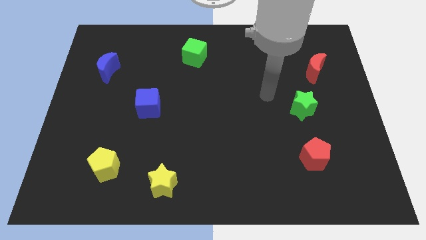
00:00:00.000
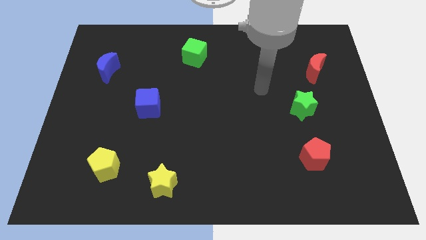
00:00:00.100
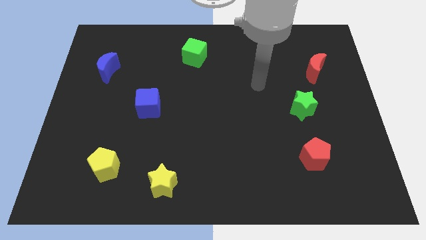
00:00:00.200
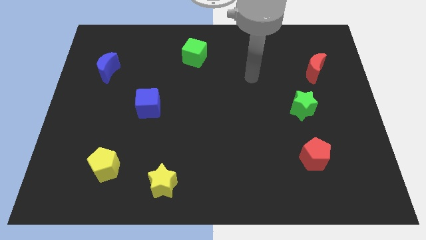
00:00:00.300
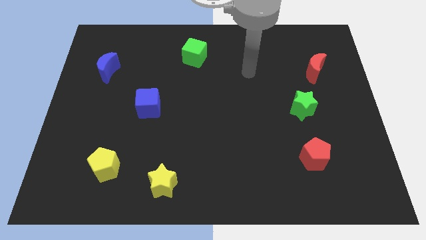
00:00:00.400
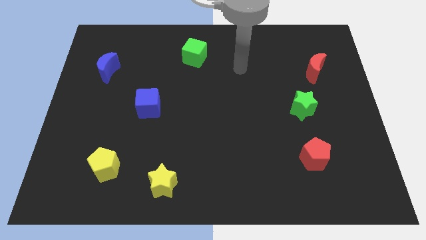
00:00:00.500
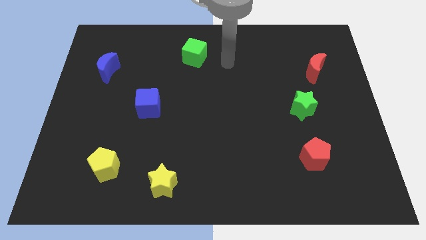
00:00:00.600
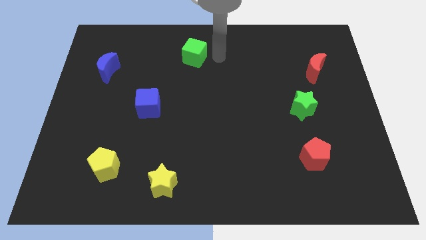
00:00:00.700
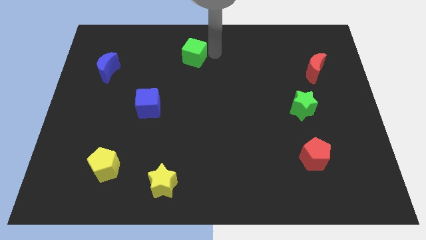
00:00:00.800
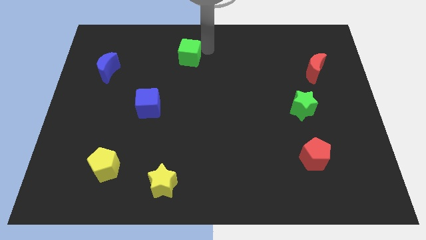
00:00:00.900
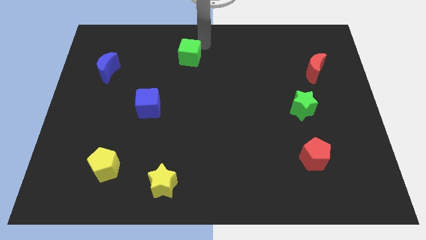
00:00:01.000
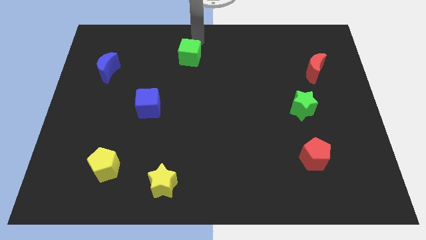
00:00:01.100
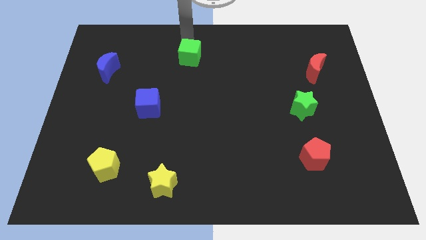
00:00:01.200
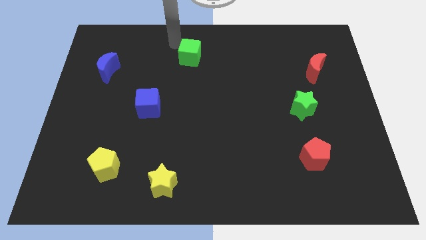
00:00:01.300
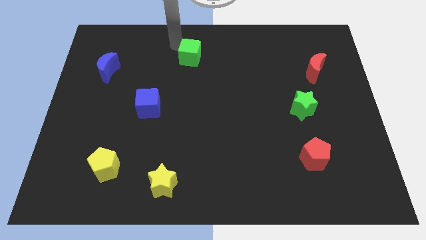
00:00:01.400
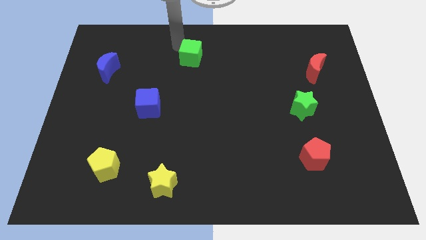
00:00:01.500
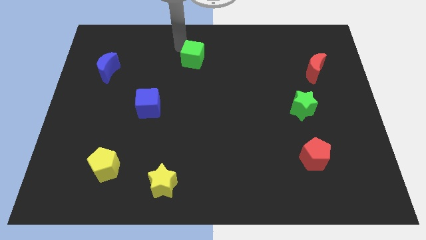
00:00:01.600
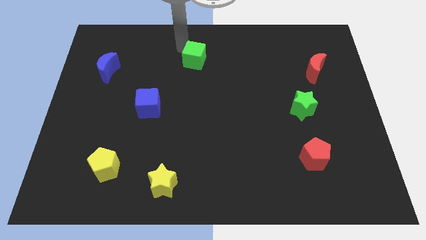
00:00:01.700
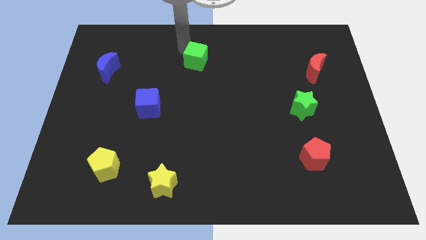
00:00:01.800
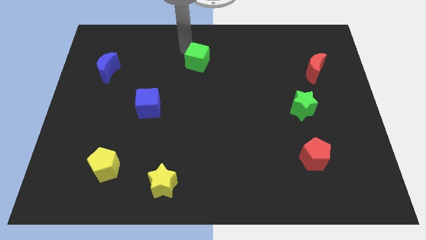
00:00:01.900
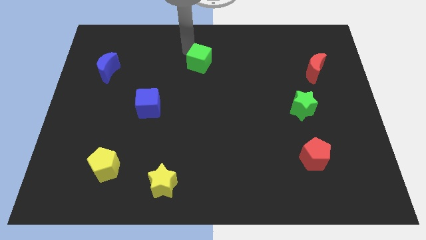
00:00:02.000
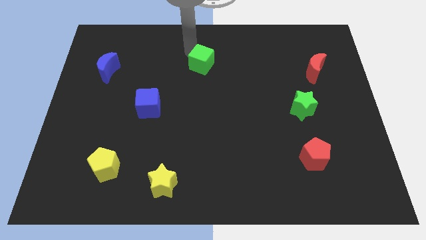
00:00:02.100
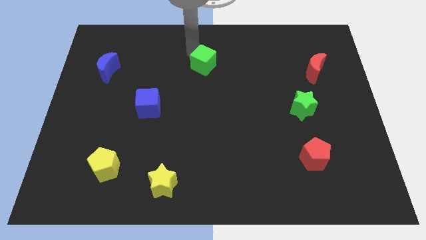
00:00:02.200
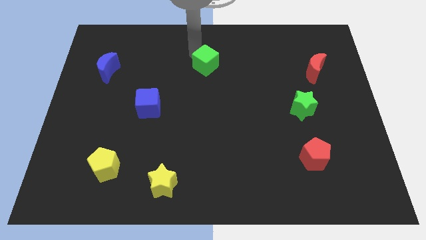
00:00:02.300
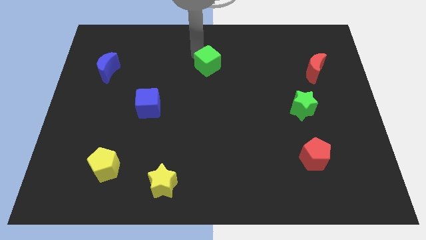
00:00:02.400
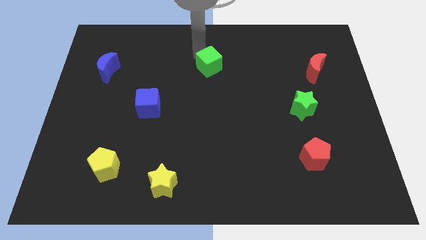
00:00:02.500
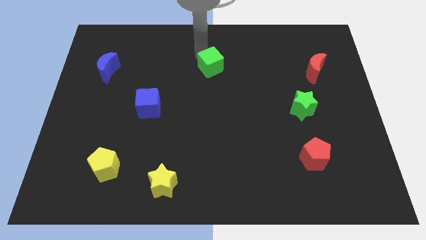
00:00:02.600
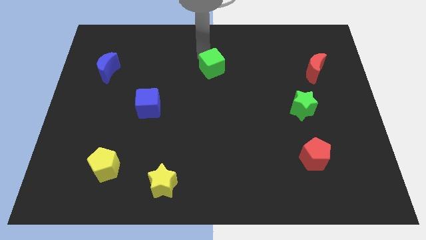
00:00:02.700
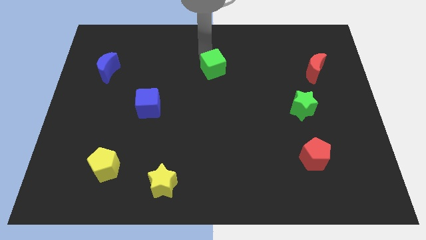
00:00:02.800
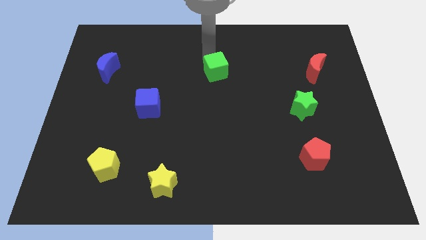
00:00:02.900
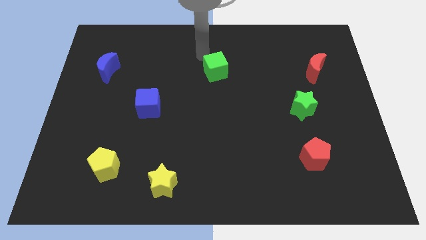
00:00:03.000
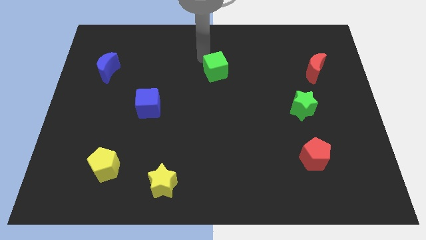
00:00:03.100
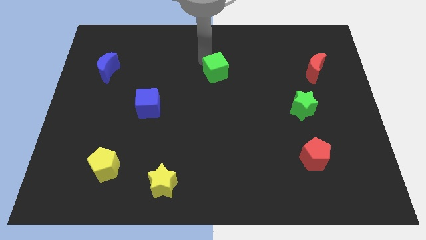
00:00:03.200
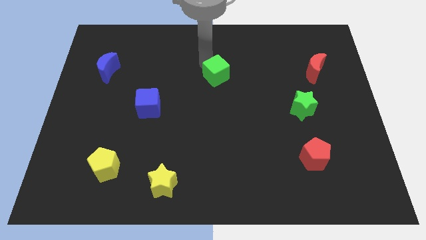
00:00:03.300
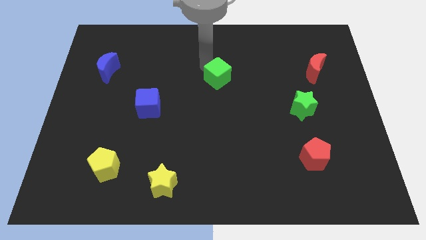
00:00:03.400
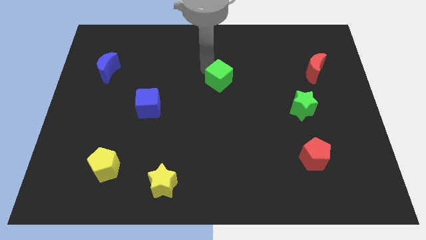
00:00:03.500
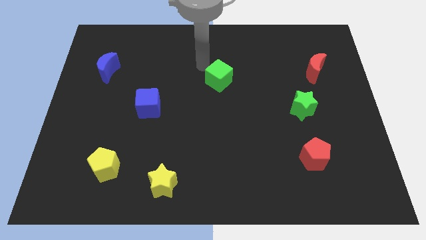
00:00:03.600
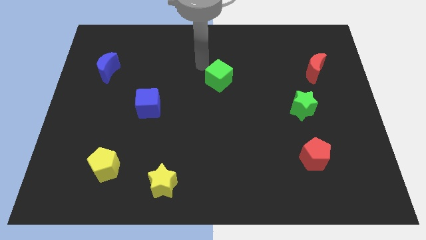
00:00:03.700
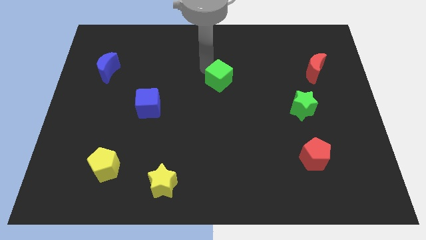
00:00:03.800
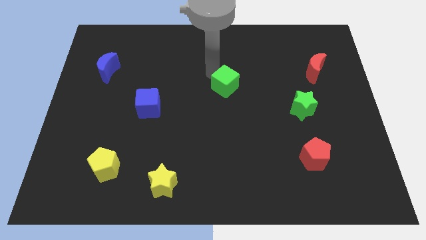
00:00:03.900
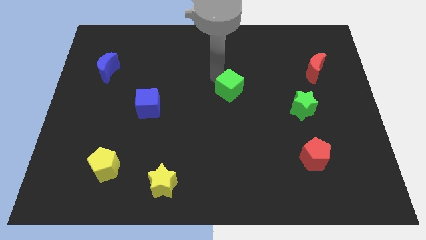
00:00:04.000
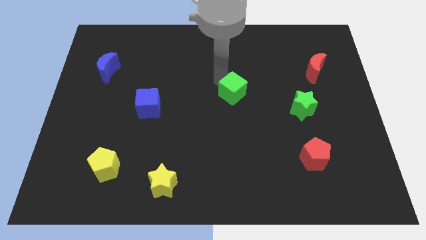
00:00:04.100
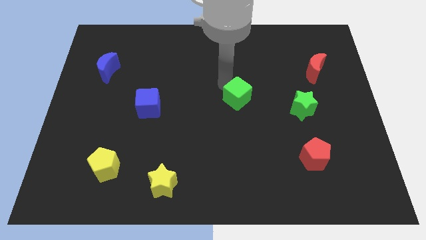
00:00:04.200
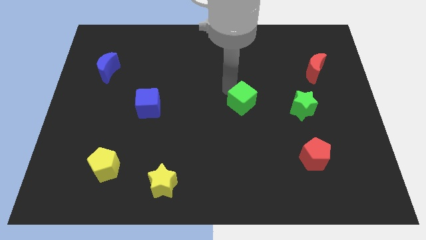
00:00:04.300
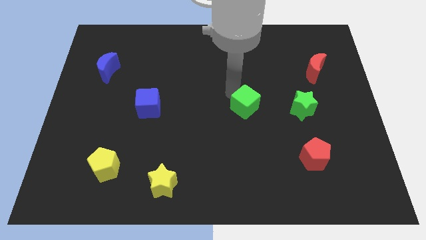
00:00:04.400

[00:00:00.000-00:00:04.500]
push the green cube downwards and right diagonally

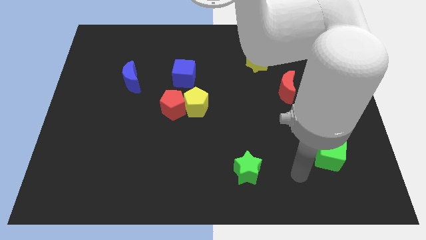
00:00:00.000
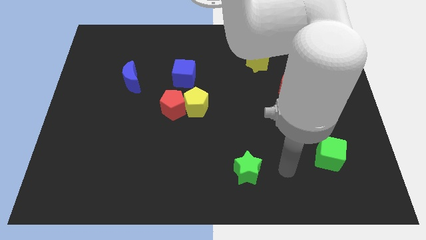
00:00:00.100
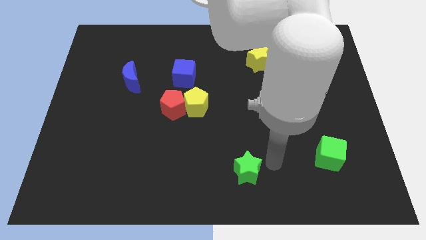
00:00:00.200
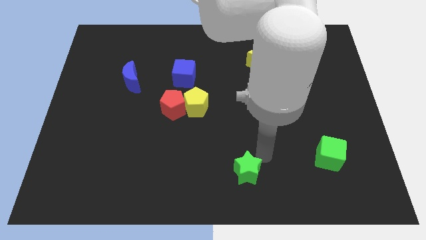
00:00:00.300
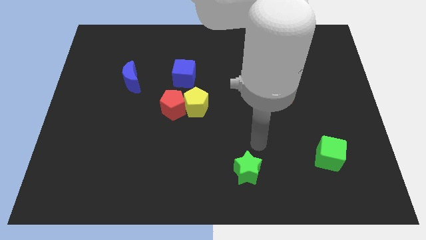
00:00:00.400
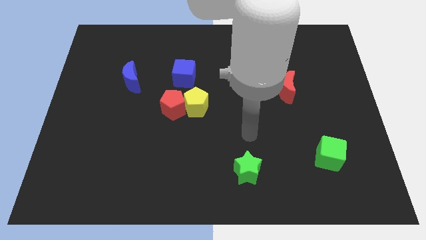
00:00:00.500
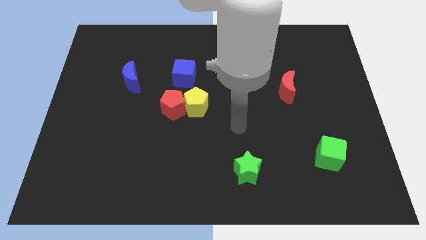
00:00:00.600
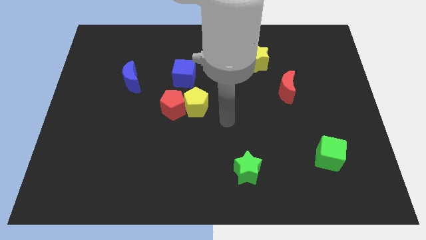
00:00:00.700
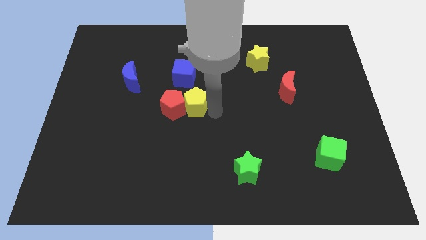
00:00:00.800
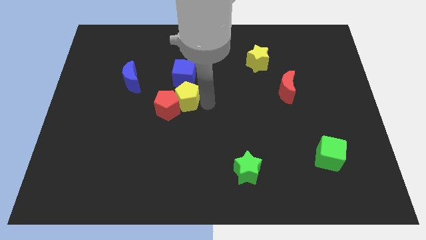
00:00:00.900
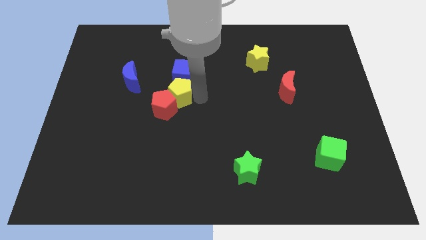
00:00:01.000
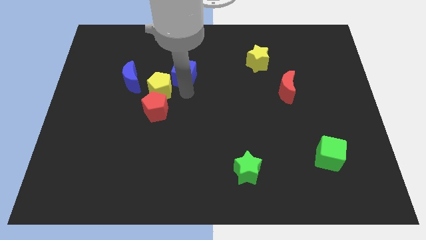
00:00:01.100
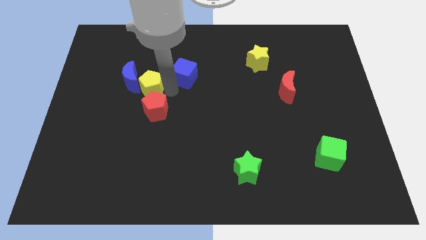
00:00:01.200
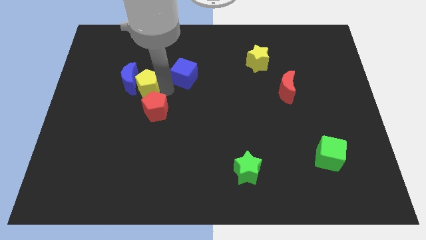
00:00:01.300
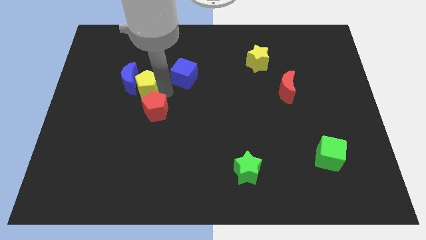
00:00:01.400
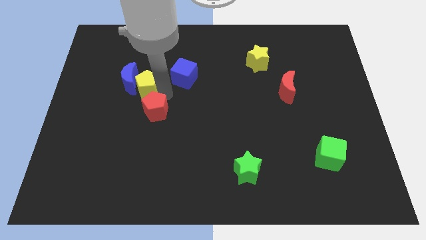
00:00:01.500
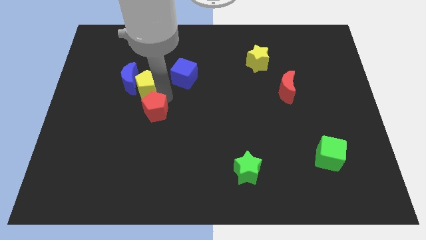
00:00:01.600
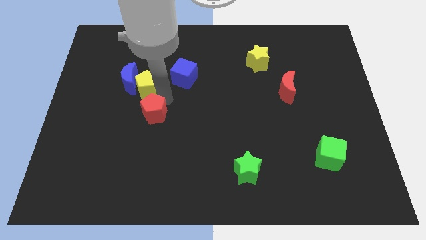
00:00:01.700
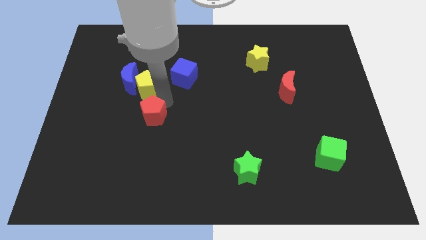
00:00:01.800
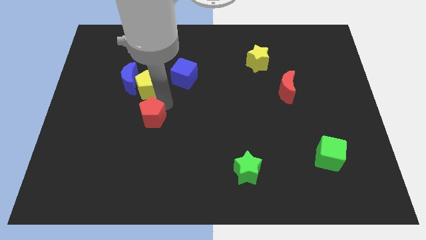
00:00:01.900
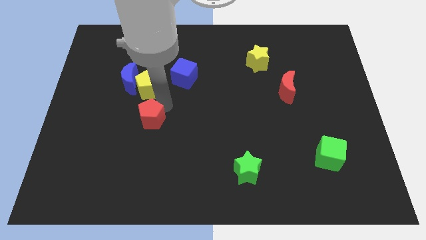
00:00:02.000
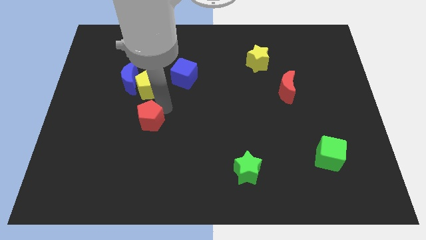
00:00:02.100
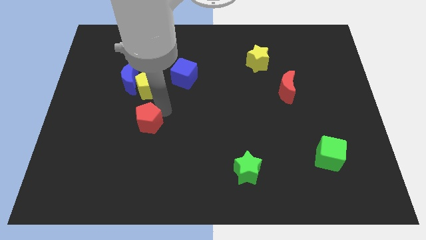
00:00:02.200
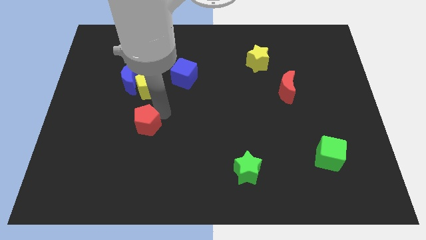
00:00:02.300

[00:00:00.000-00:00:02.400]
slightly move the red pentagon down and left diagonally

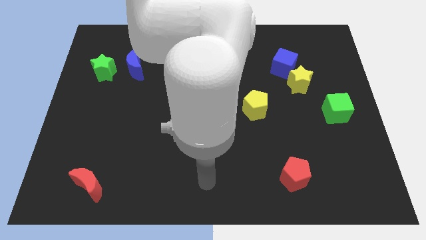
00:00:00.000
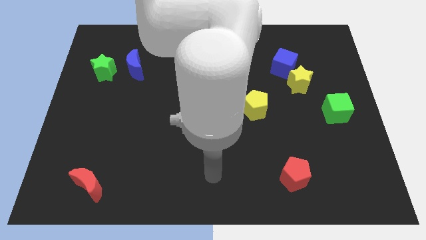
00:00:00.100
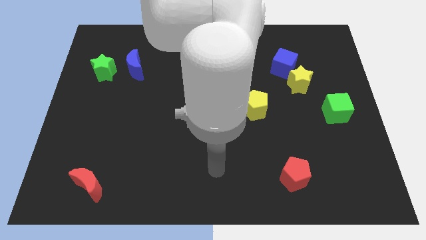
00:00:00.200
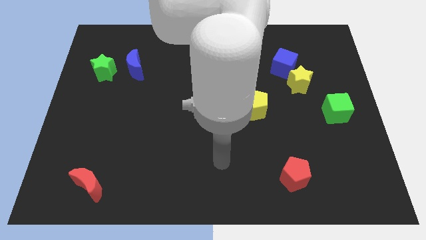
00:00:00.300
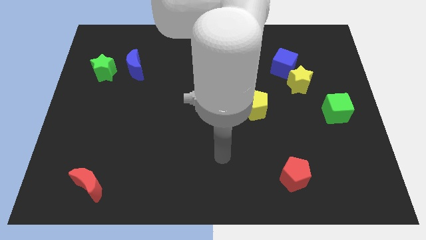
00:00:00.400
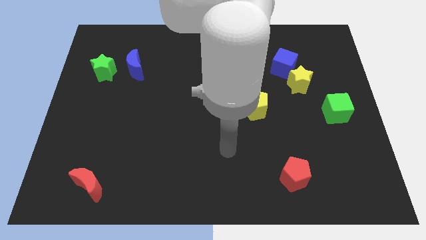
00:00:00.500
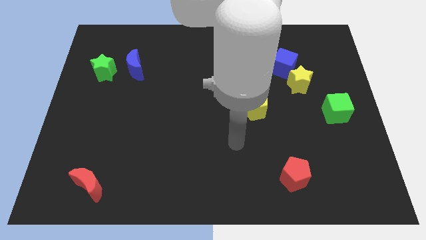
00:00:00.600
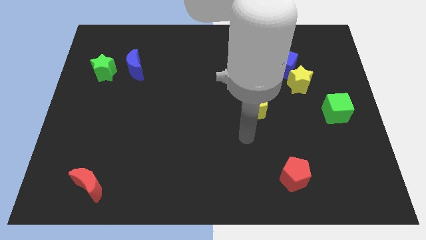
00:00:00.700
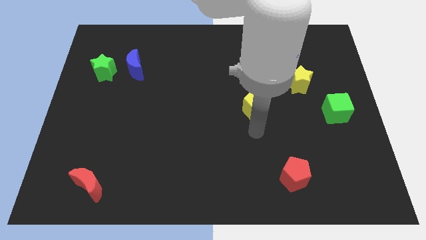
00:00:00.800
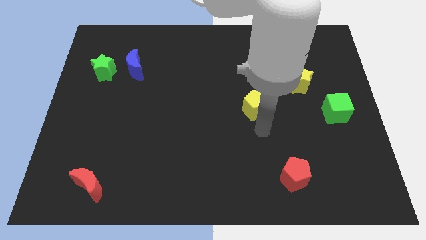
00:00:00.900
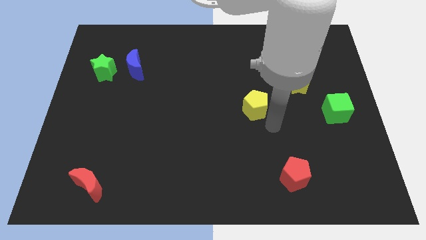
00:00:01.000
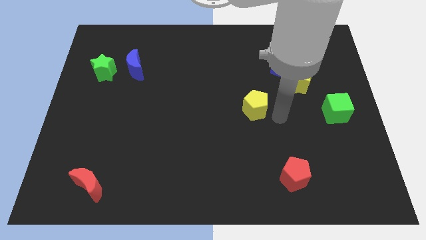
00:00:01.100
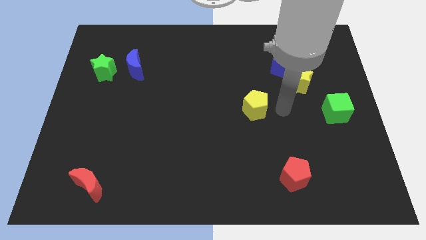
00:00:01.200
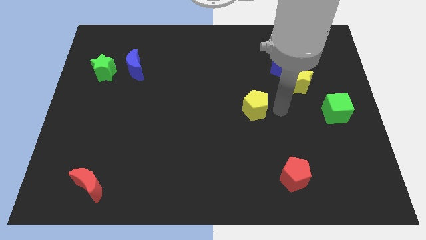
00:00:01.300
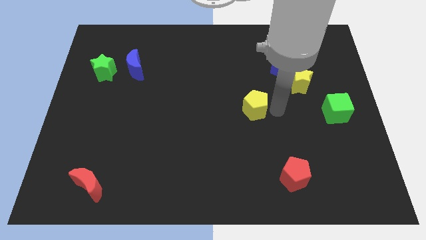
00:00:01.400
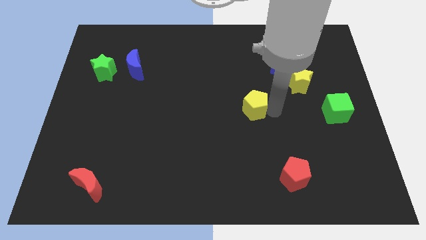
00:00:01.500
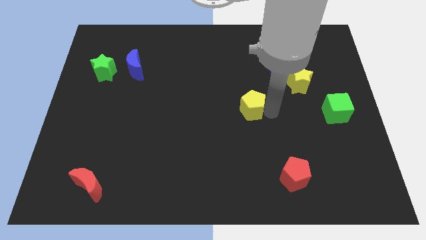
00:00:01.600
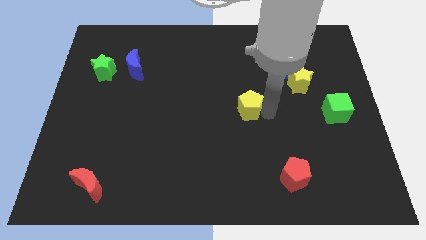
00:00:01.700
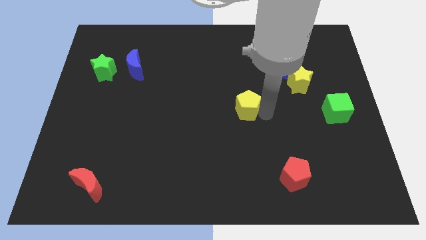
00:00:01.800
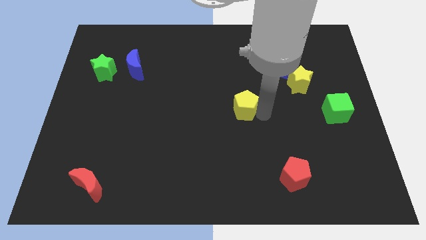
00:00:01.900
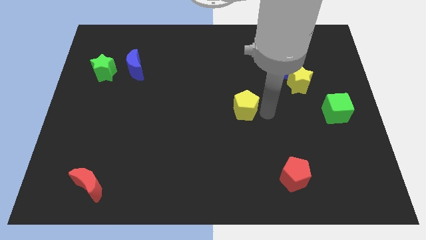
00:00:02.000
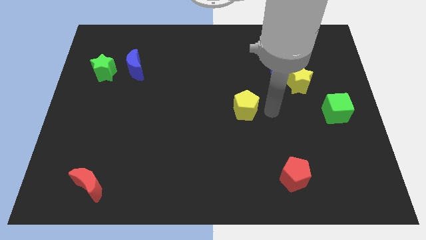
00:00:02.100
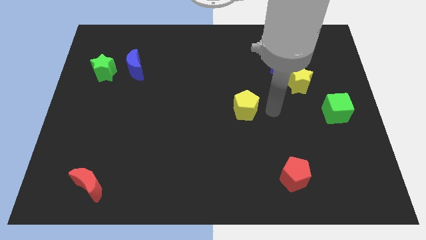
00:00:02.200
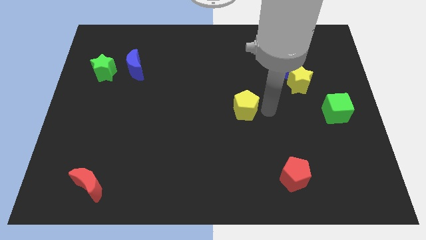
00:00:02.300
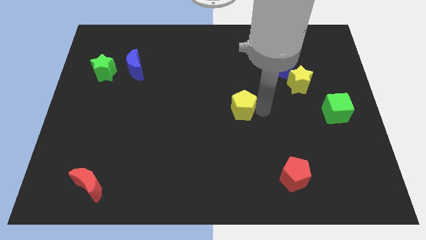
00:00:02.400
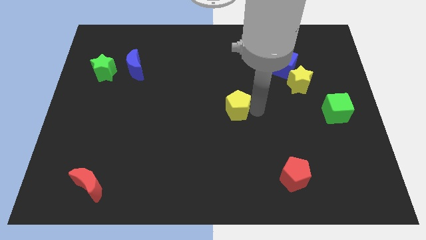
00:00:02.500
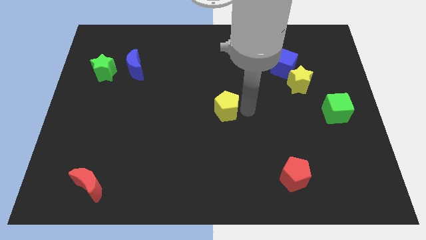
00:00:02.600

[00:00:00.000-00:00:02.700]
slightly push the yellow pentagon to the left
